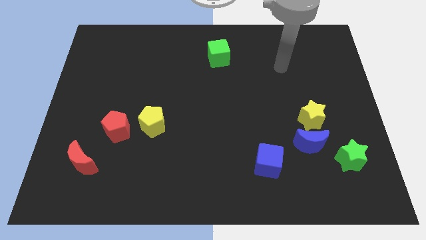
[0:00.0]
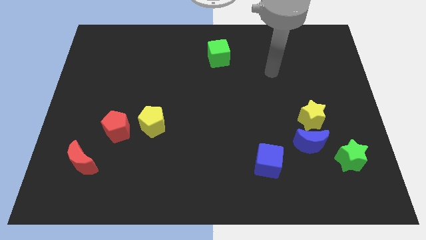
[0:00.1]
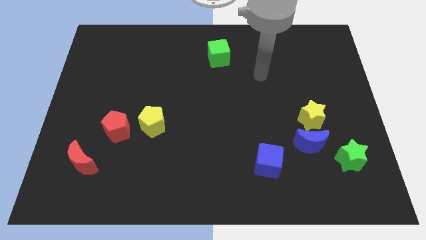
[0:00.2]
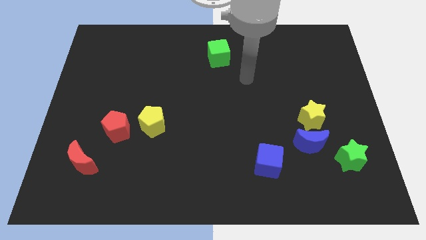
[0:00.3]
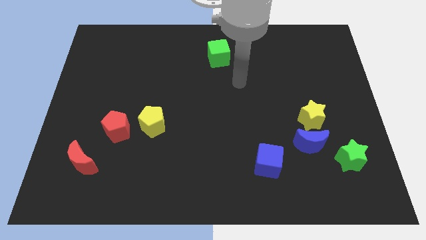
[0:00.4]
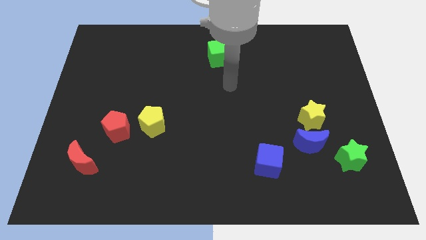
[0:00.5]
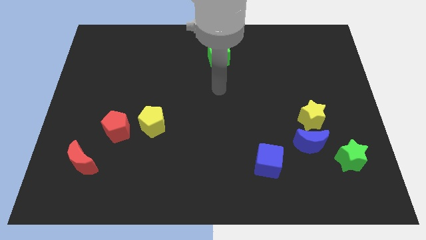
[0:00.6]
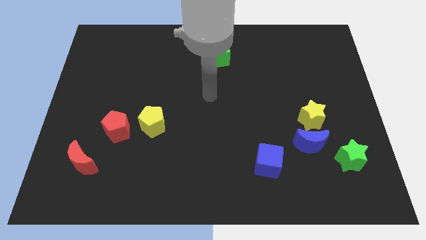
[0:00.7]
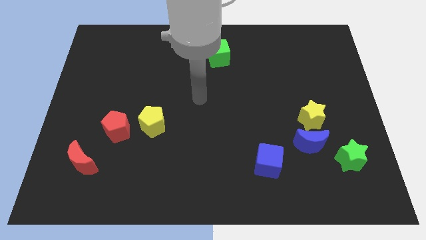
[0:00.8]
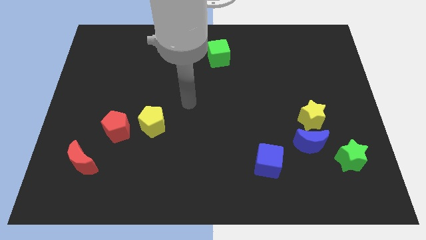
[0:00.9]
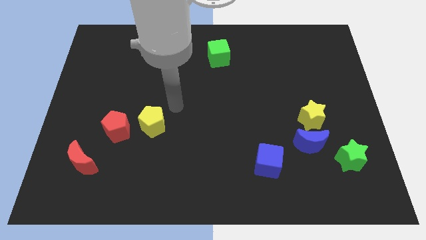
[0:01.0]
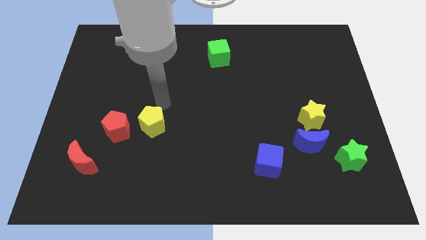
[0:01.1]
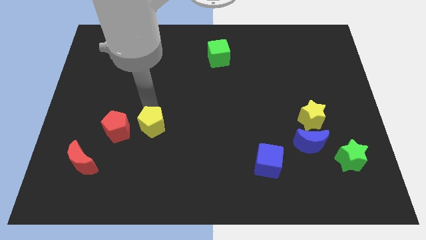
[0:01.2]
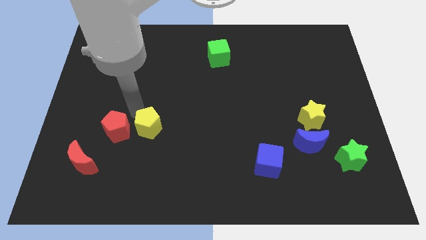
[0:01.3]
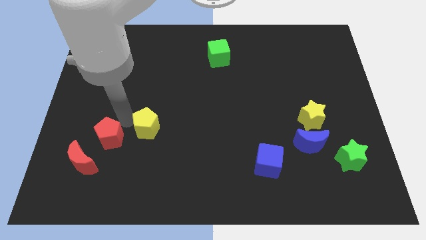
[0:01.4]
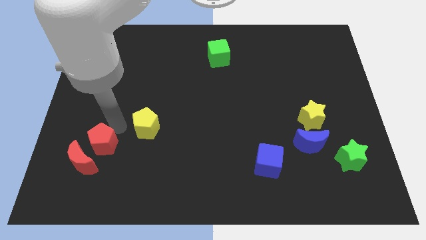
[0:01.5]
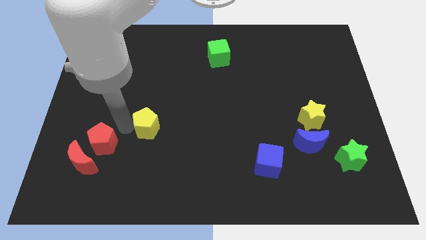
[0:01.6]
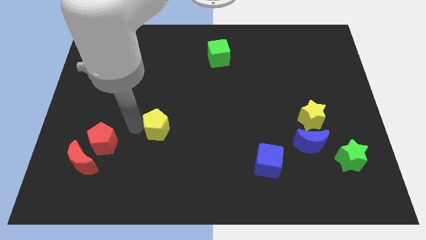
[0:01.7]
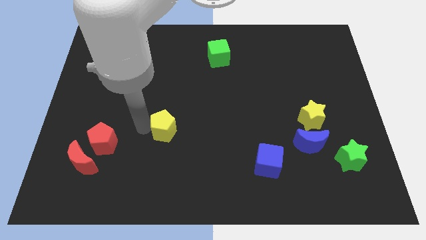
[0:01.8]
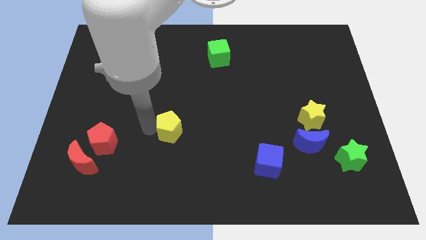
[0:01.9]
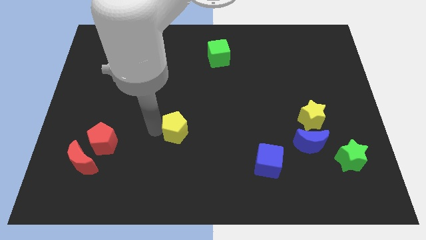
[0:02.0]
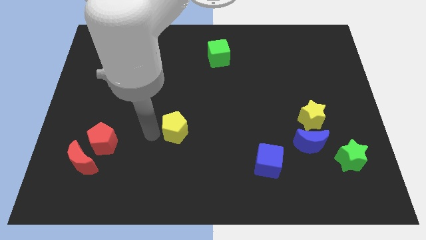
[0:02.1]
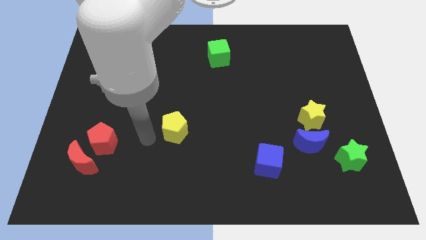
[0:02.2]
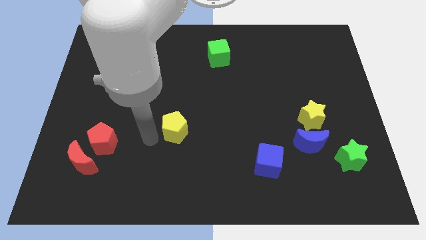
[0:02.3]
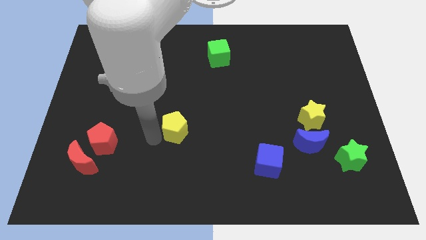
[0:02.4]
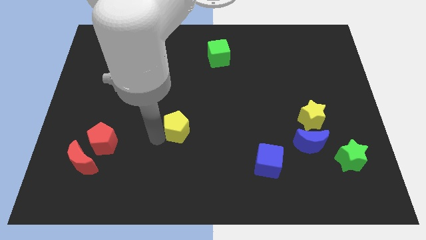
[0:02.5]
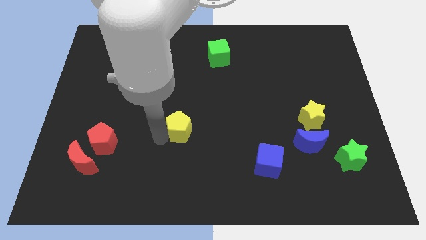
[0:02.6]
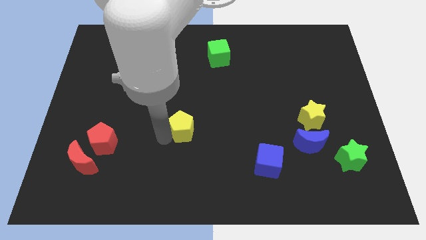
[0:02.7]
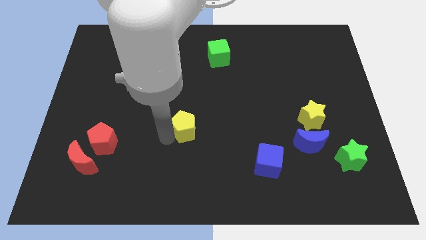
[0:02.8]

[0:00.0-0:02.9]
push the yellow pentagon right a little bit

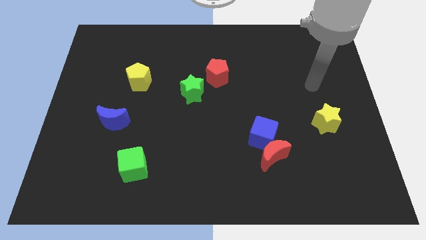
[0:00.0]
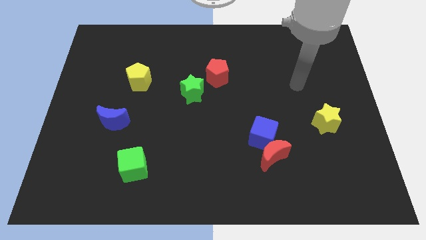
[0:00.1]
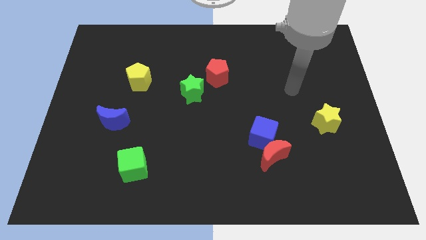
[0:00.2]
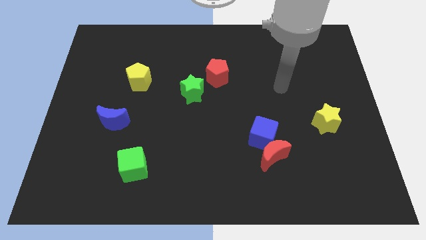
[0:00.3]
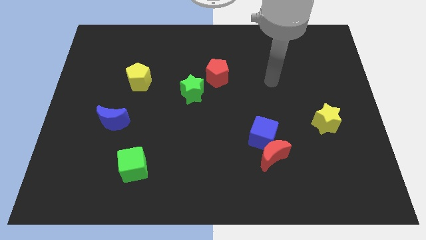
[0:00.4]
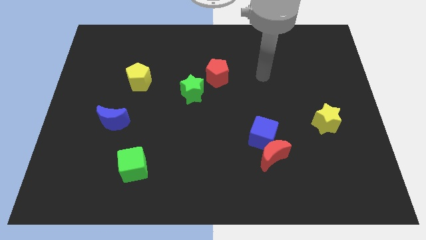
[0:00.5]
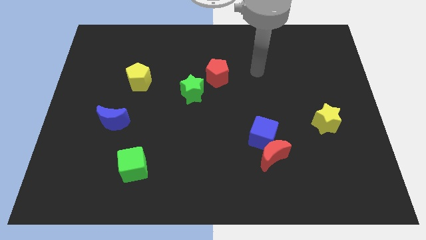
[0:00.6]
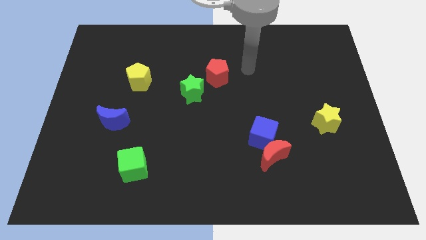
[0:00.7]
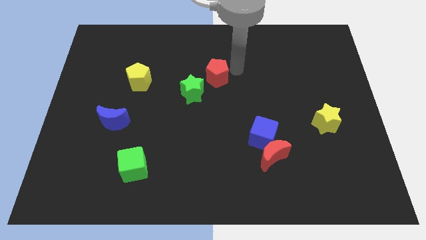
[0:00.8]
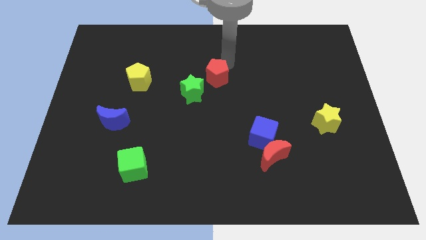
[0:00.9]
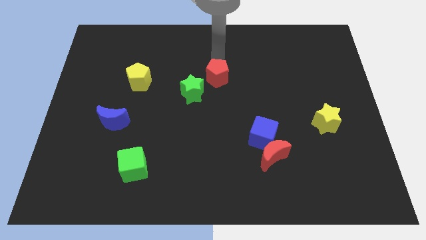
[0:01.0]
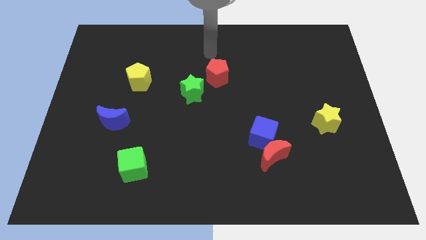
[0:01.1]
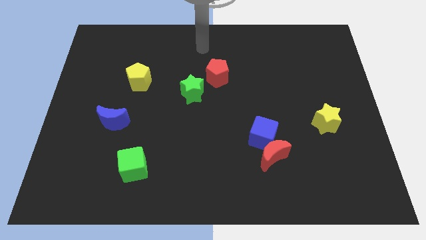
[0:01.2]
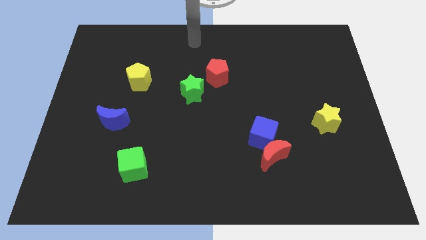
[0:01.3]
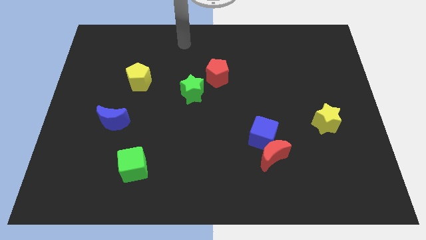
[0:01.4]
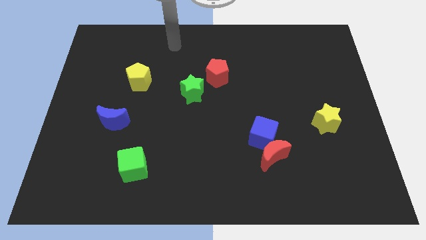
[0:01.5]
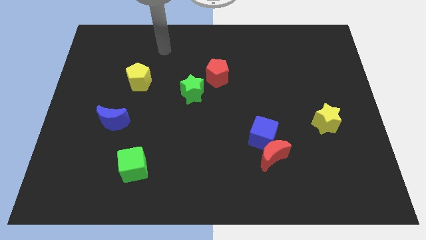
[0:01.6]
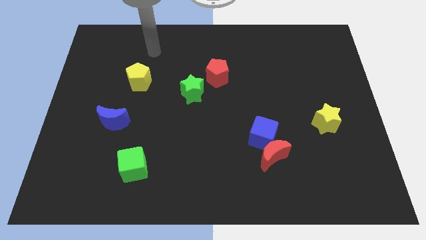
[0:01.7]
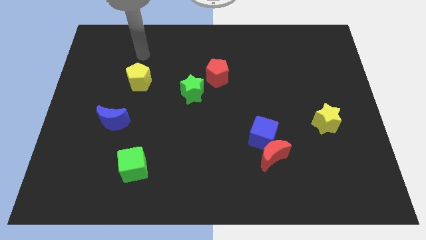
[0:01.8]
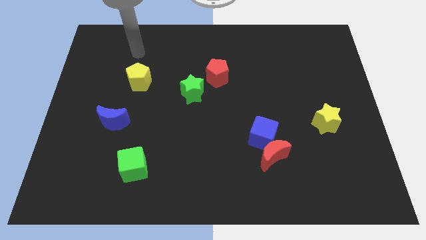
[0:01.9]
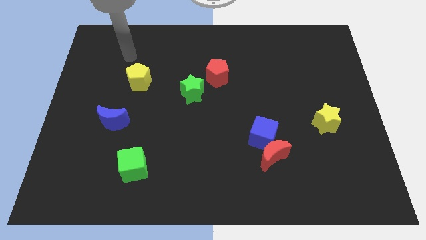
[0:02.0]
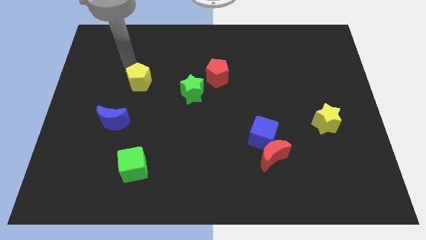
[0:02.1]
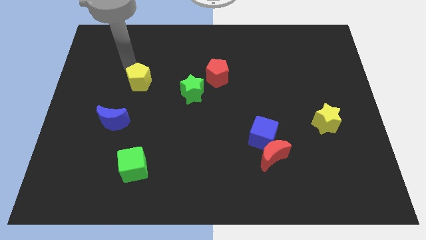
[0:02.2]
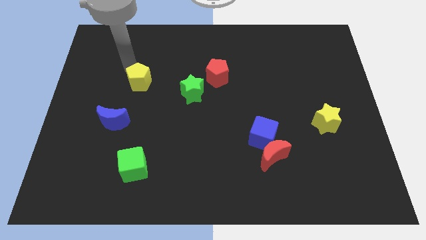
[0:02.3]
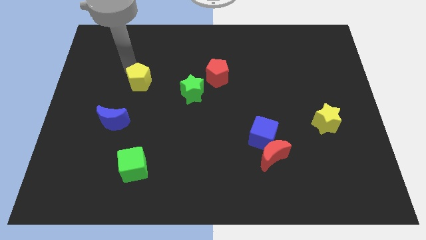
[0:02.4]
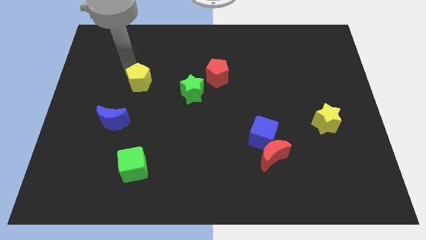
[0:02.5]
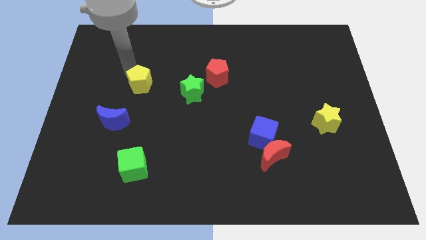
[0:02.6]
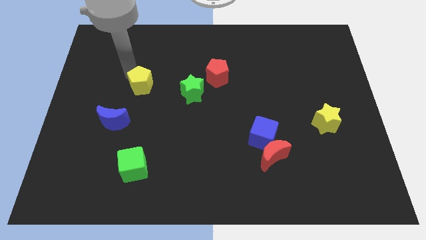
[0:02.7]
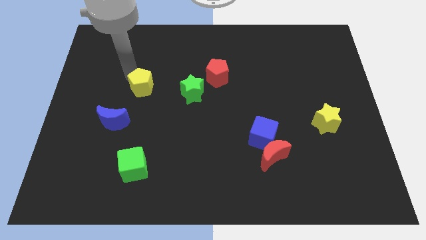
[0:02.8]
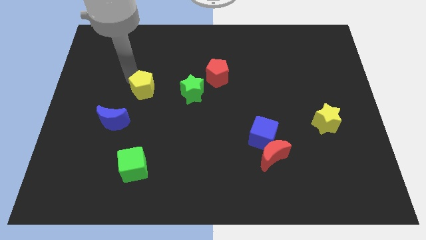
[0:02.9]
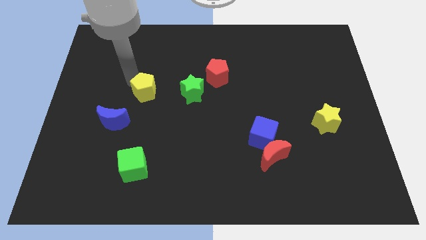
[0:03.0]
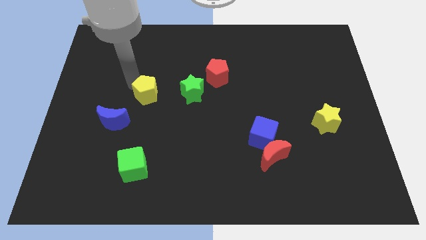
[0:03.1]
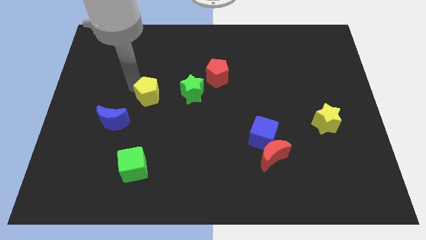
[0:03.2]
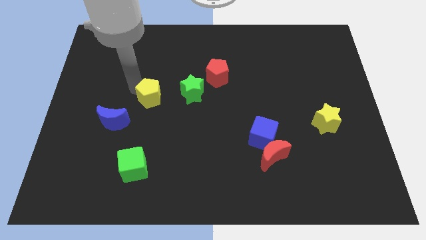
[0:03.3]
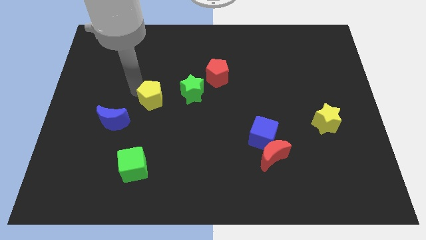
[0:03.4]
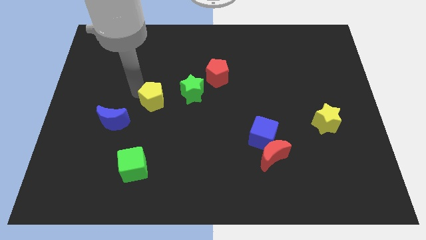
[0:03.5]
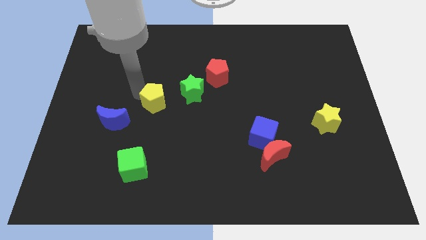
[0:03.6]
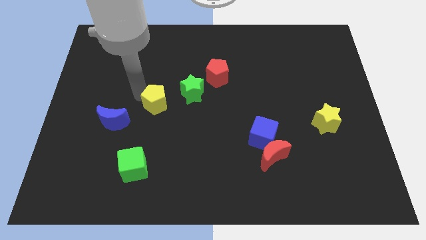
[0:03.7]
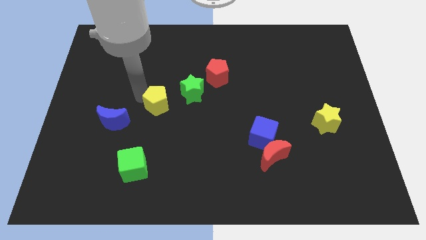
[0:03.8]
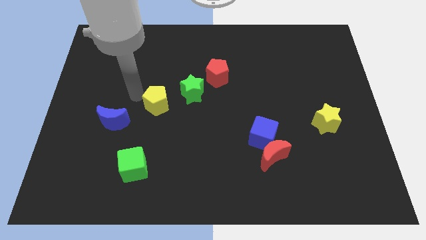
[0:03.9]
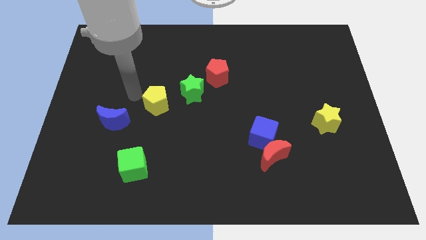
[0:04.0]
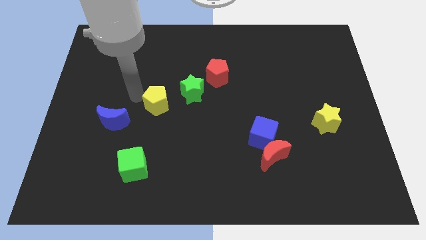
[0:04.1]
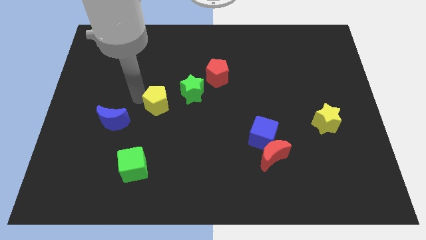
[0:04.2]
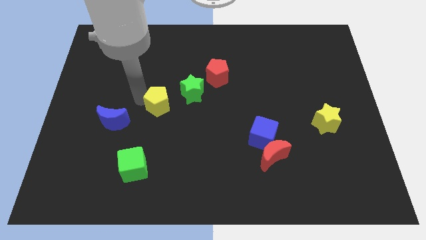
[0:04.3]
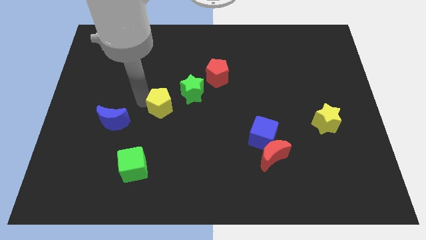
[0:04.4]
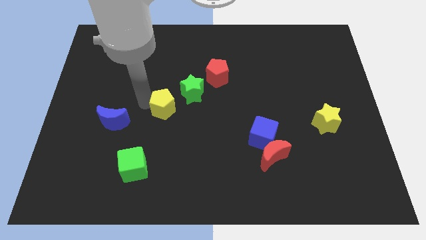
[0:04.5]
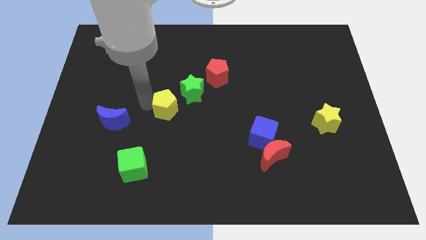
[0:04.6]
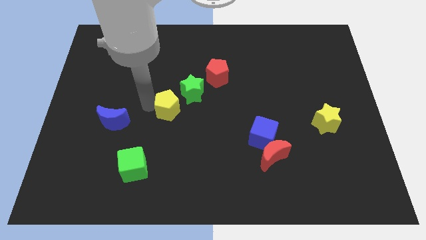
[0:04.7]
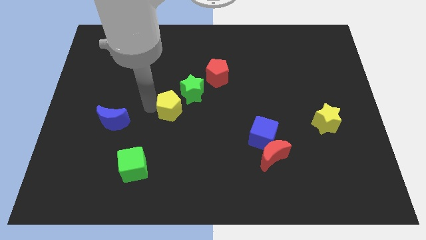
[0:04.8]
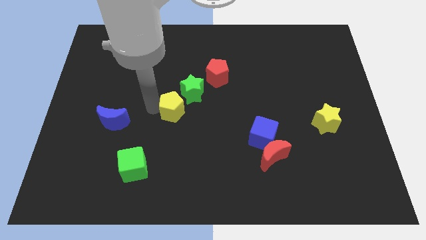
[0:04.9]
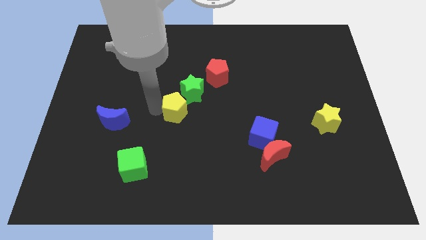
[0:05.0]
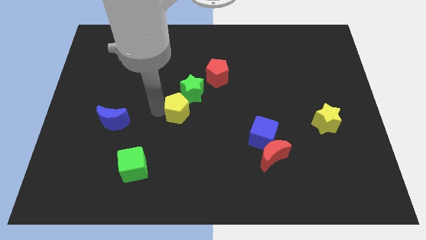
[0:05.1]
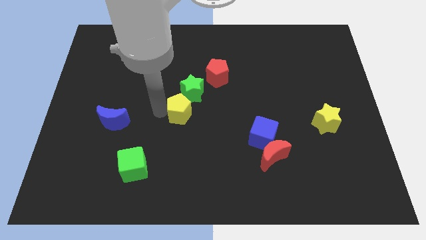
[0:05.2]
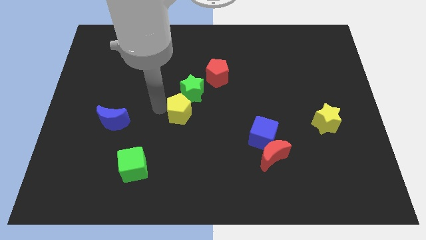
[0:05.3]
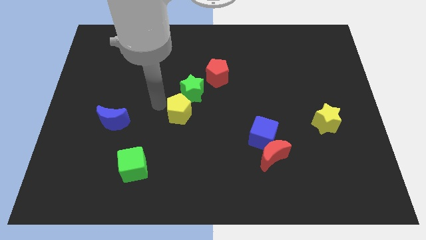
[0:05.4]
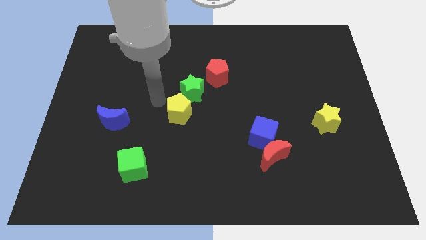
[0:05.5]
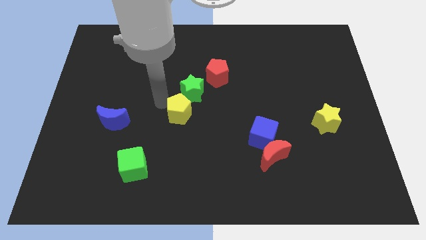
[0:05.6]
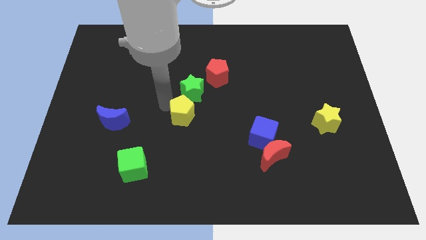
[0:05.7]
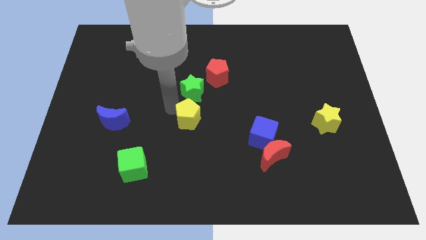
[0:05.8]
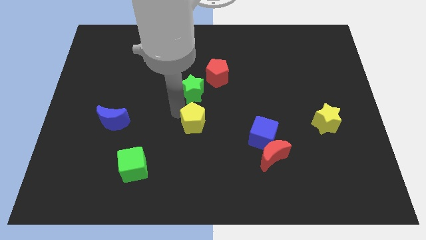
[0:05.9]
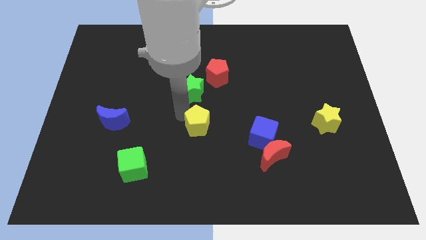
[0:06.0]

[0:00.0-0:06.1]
move the yellow pentagon down and right
